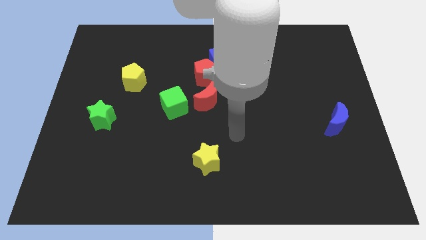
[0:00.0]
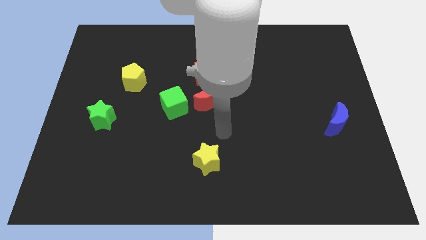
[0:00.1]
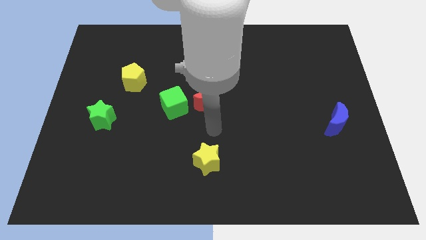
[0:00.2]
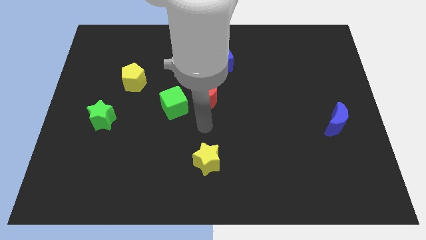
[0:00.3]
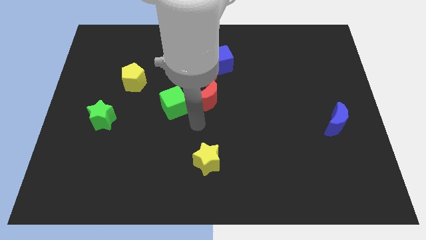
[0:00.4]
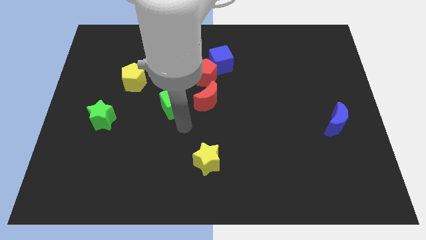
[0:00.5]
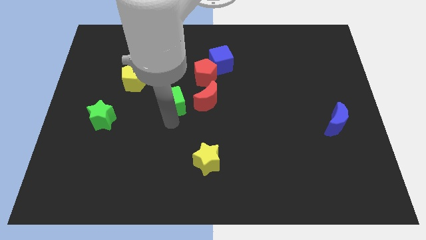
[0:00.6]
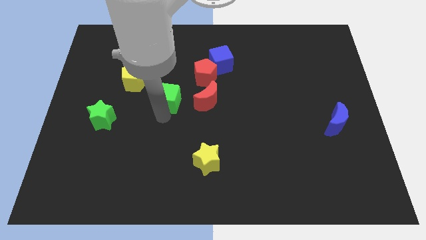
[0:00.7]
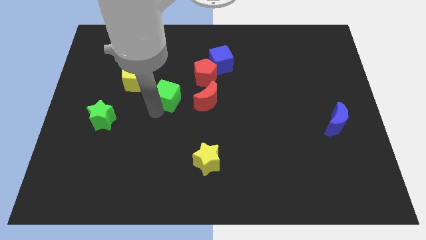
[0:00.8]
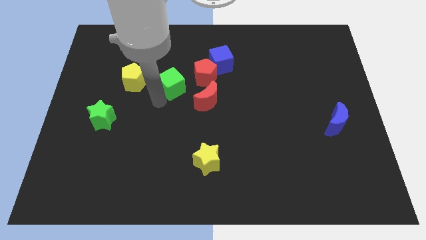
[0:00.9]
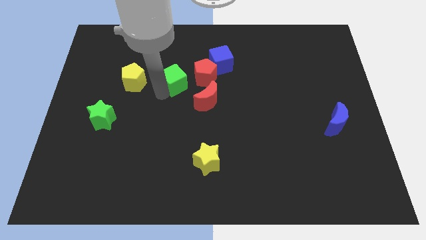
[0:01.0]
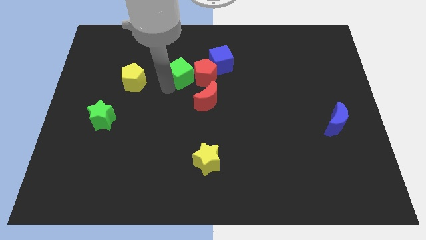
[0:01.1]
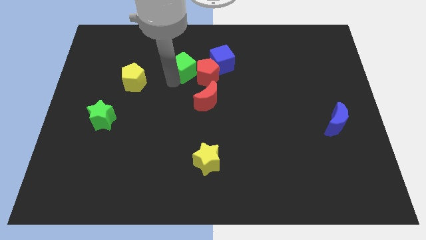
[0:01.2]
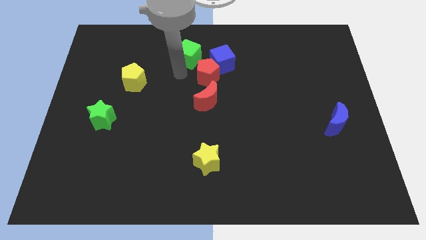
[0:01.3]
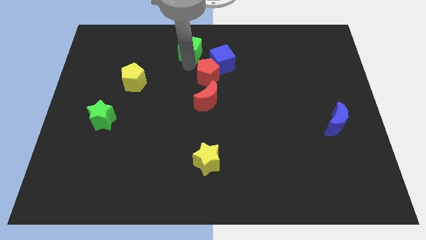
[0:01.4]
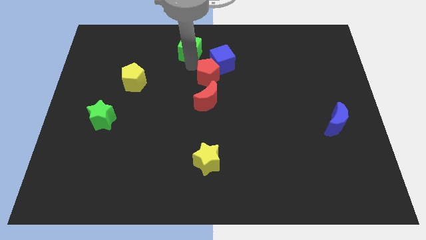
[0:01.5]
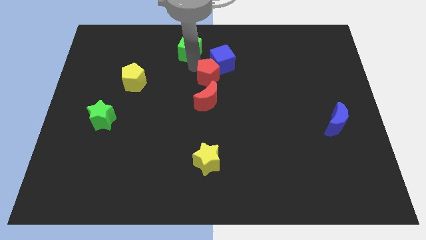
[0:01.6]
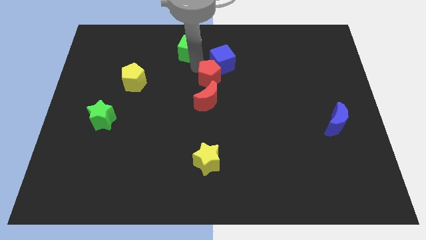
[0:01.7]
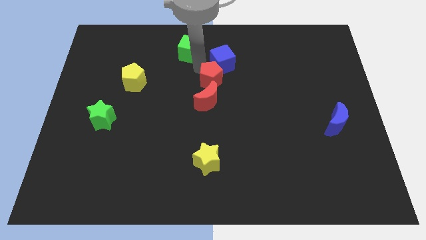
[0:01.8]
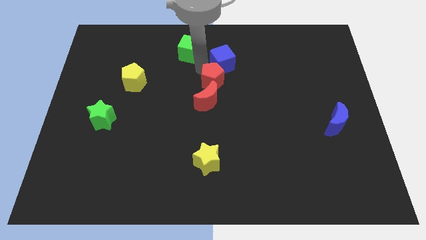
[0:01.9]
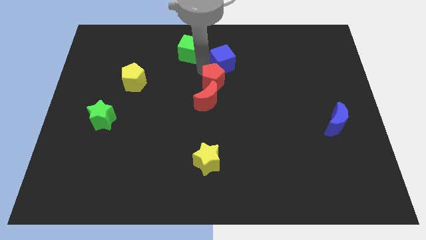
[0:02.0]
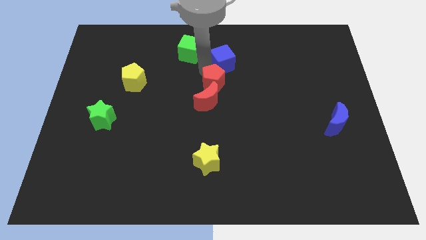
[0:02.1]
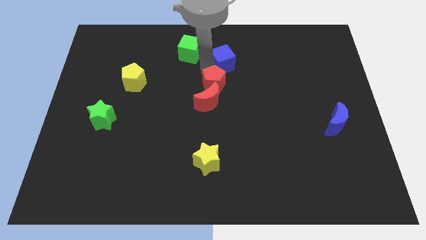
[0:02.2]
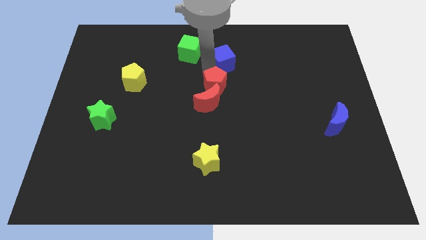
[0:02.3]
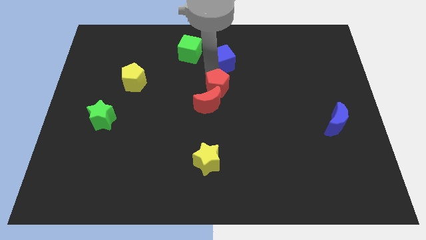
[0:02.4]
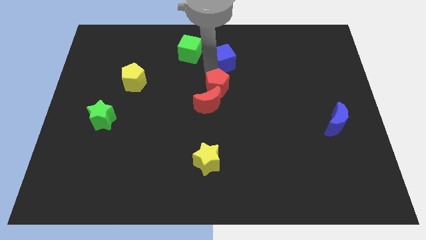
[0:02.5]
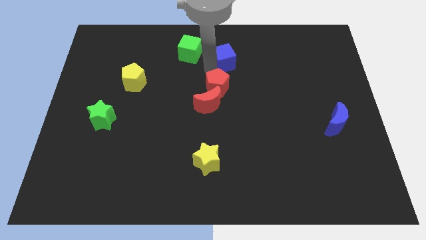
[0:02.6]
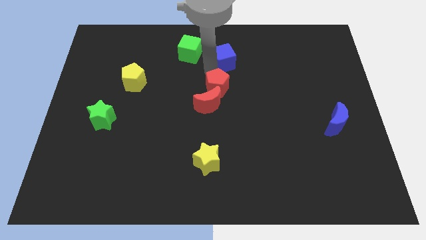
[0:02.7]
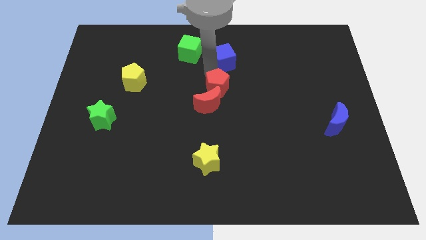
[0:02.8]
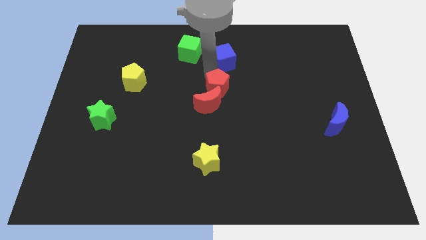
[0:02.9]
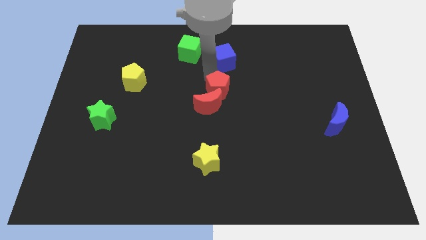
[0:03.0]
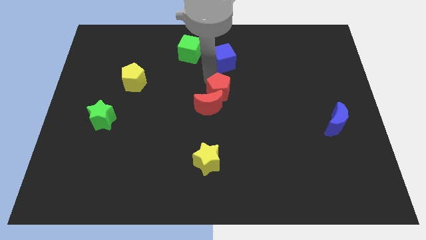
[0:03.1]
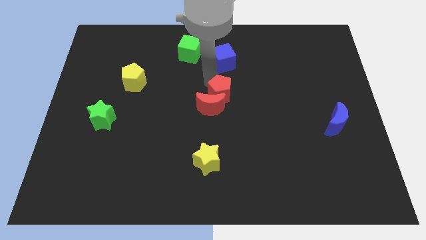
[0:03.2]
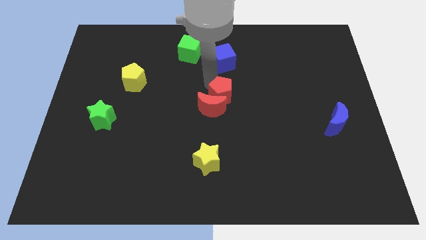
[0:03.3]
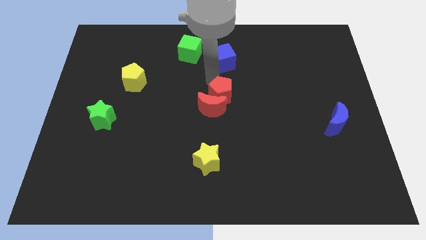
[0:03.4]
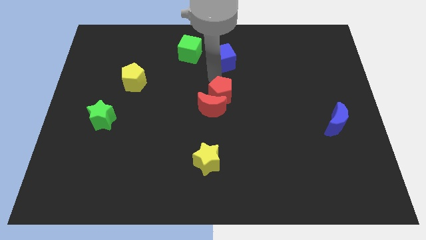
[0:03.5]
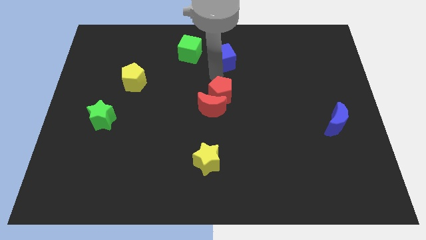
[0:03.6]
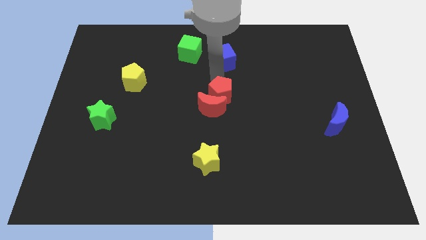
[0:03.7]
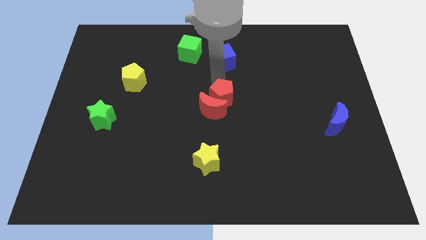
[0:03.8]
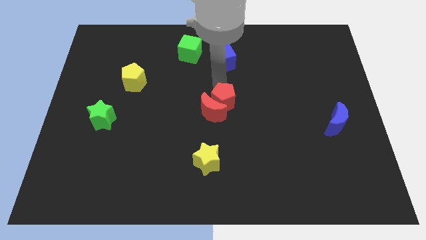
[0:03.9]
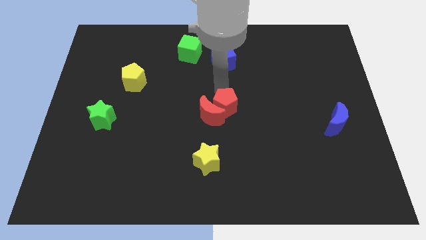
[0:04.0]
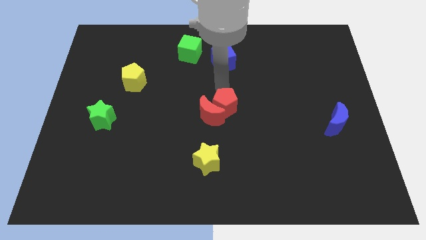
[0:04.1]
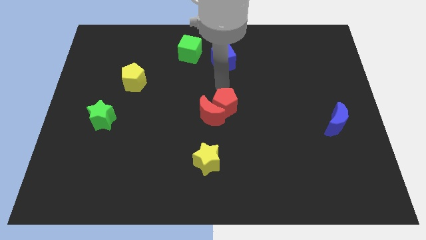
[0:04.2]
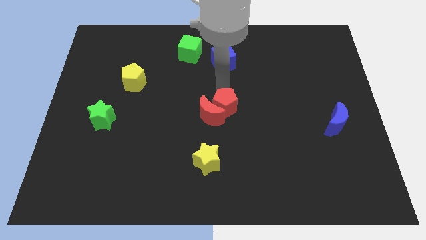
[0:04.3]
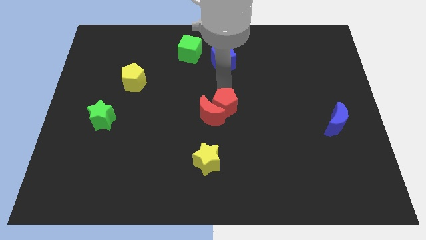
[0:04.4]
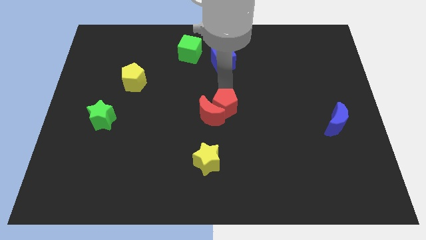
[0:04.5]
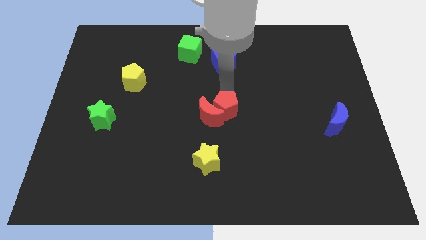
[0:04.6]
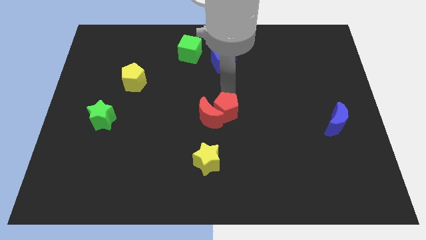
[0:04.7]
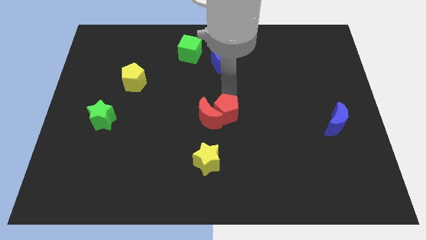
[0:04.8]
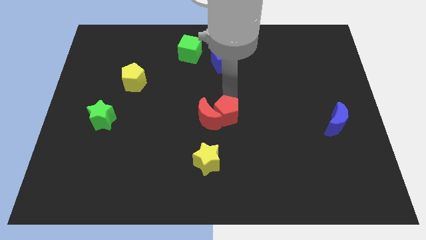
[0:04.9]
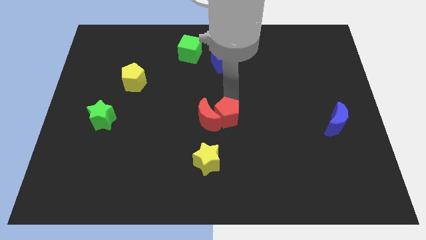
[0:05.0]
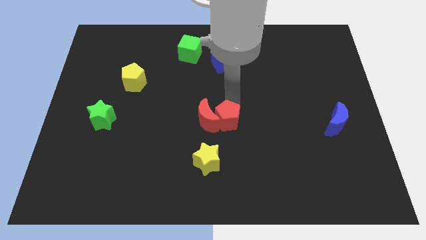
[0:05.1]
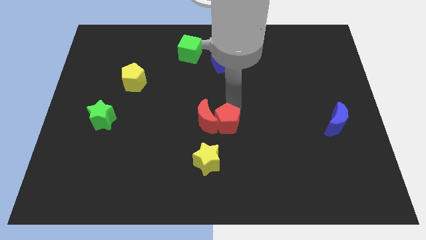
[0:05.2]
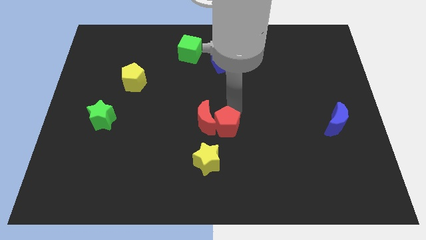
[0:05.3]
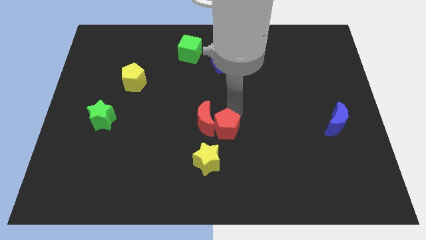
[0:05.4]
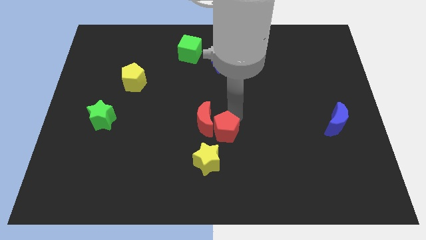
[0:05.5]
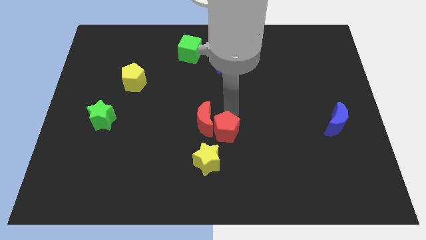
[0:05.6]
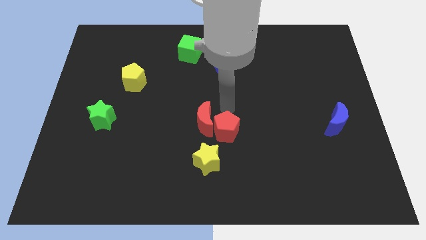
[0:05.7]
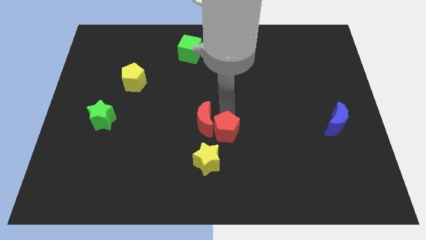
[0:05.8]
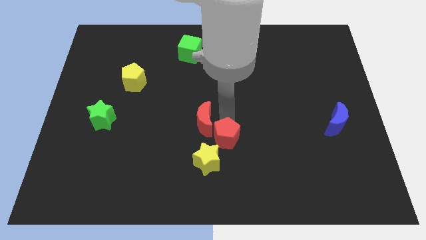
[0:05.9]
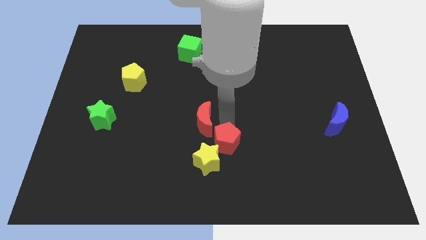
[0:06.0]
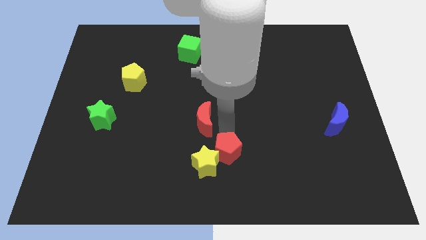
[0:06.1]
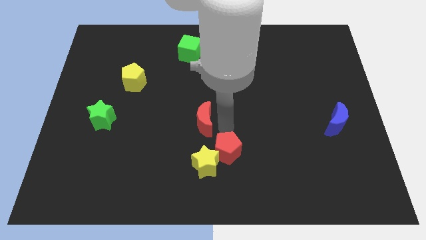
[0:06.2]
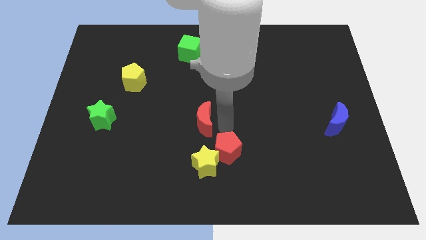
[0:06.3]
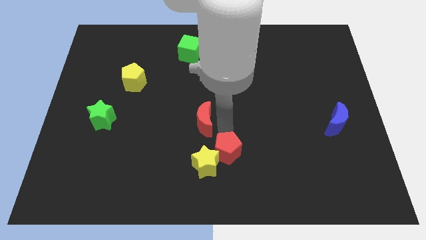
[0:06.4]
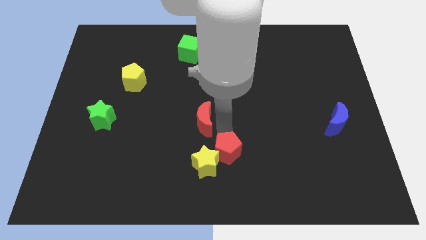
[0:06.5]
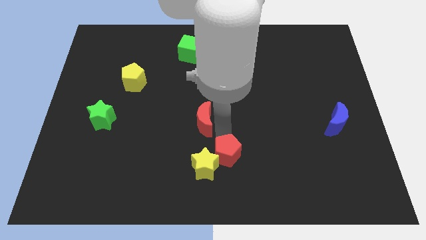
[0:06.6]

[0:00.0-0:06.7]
put the red pentagon to the bottom

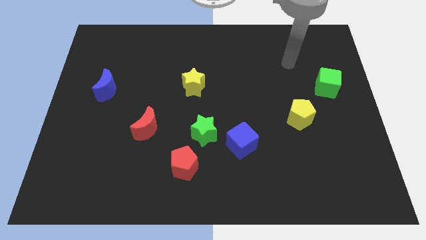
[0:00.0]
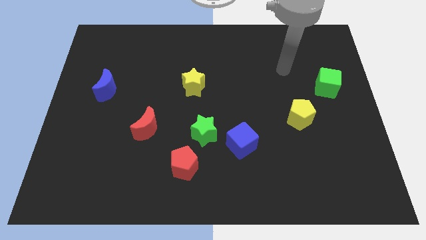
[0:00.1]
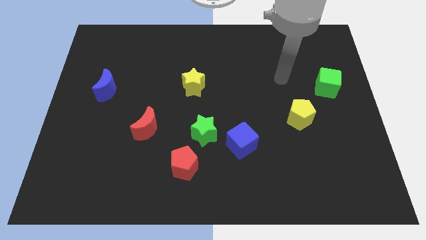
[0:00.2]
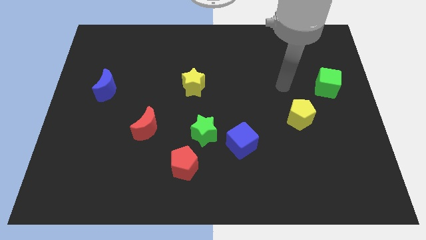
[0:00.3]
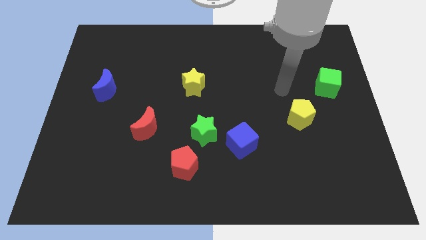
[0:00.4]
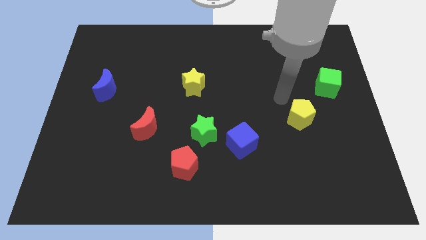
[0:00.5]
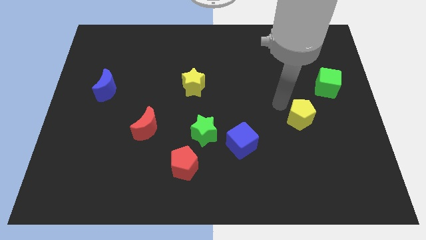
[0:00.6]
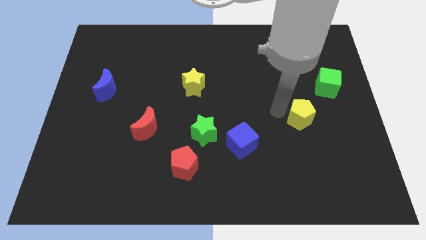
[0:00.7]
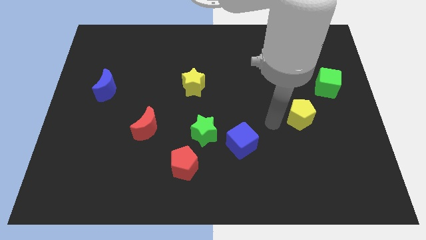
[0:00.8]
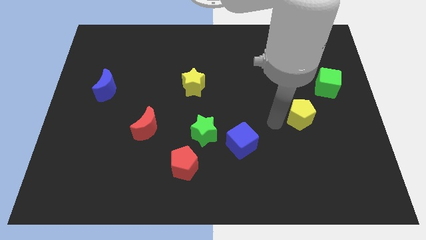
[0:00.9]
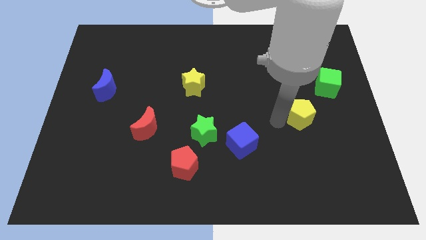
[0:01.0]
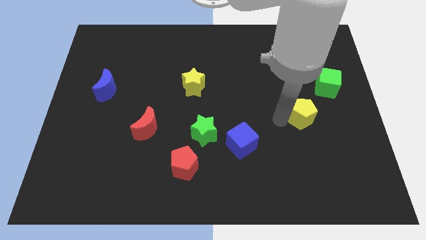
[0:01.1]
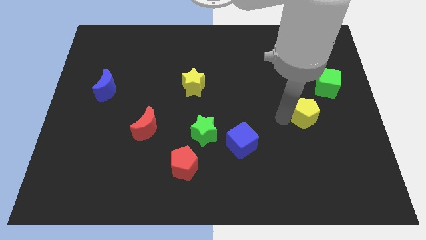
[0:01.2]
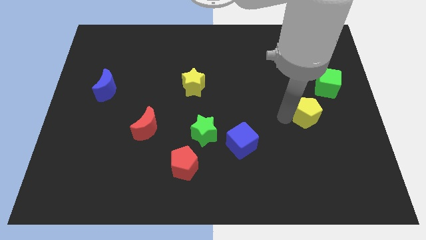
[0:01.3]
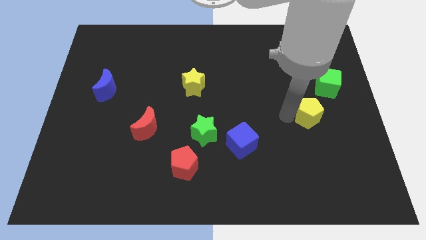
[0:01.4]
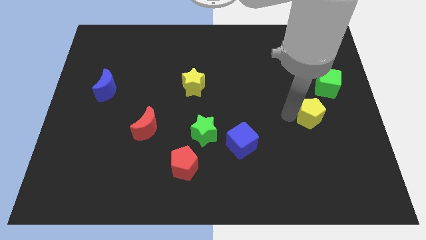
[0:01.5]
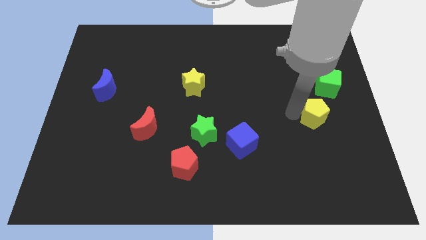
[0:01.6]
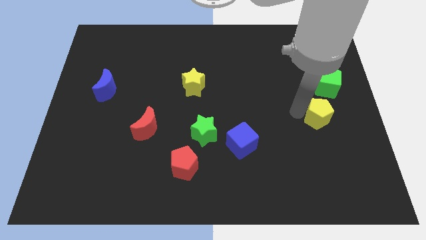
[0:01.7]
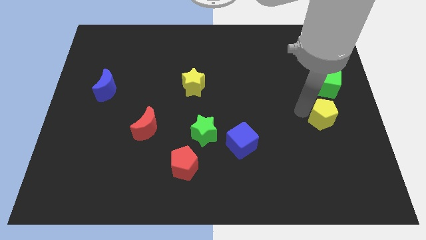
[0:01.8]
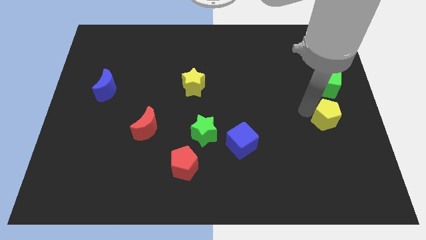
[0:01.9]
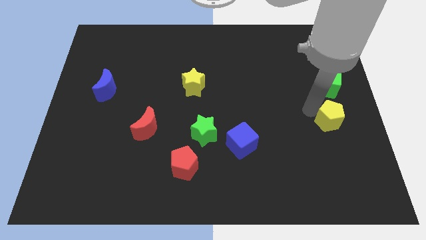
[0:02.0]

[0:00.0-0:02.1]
push the yellow pentagon to the center right
